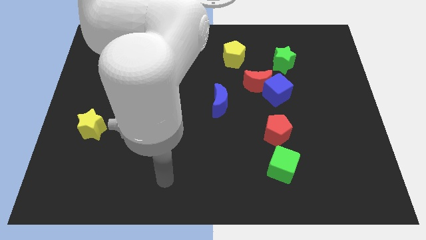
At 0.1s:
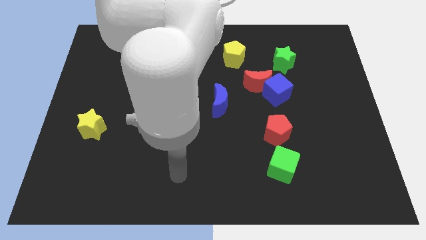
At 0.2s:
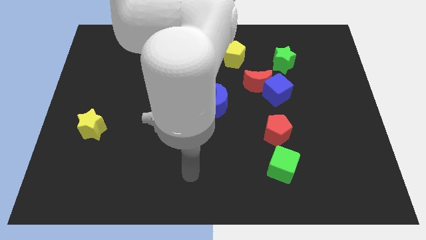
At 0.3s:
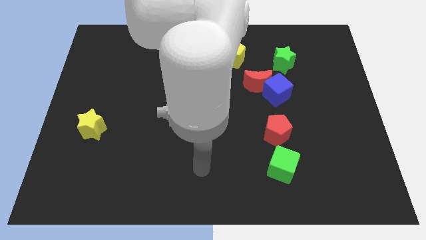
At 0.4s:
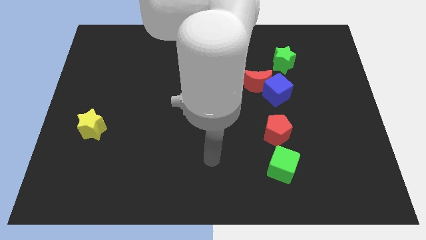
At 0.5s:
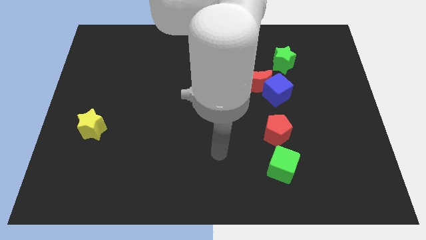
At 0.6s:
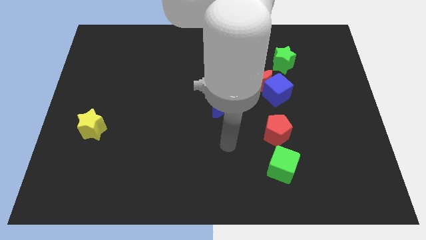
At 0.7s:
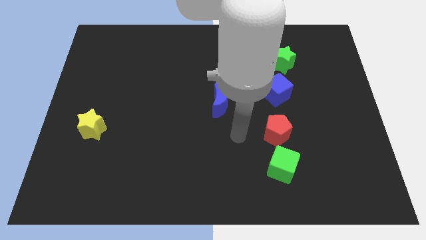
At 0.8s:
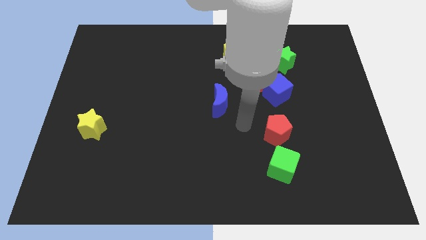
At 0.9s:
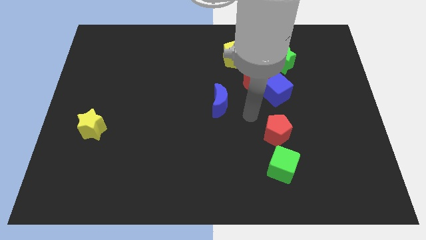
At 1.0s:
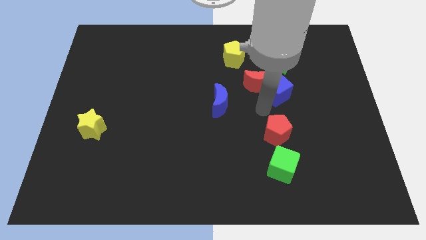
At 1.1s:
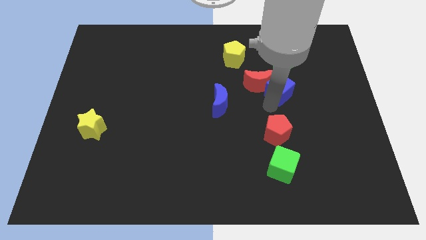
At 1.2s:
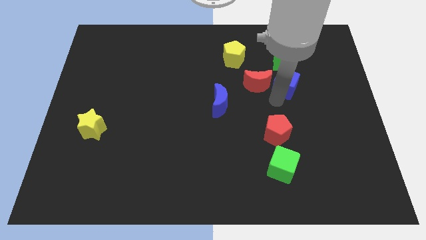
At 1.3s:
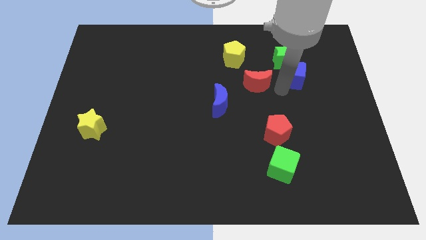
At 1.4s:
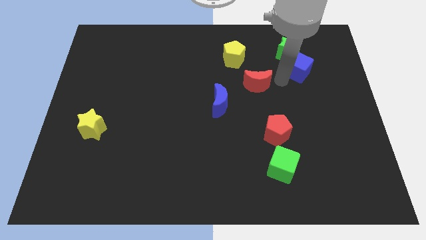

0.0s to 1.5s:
separate the red moon from the blue cube

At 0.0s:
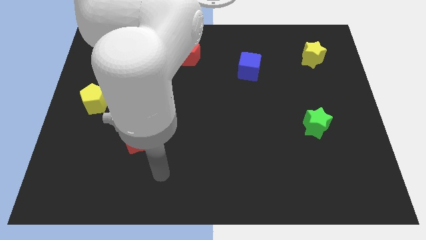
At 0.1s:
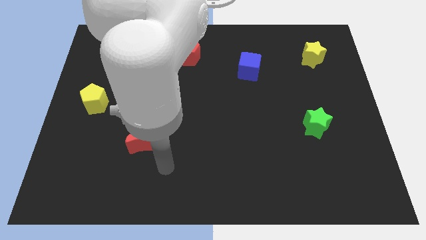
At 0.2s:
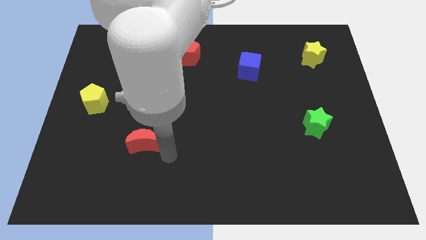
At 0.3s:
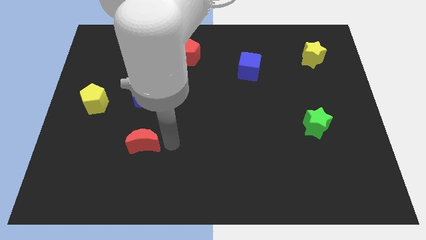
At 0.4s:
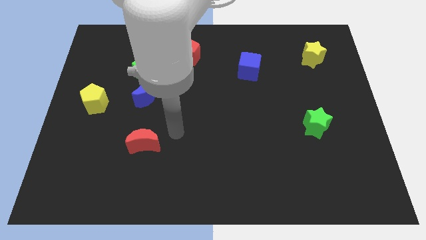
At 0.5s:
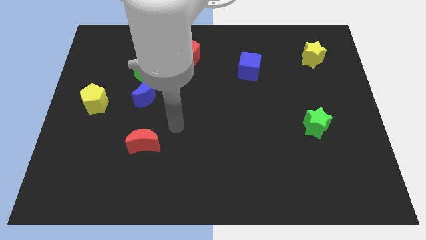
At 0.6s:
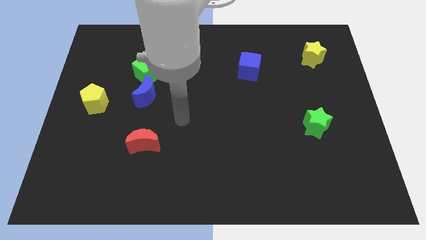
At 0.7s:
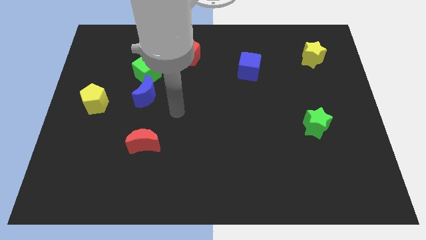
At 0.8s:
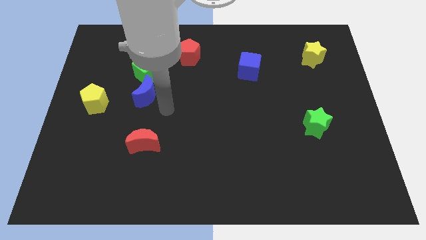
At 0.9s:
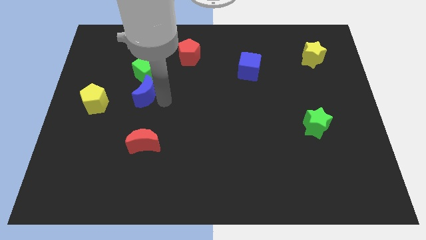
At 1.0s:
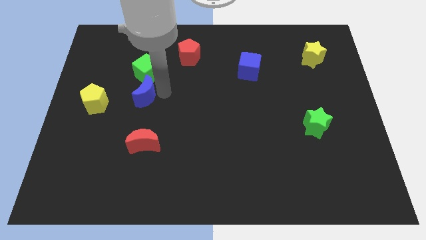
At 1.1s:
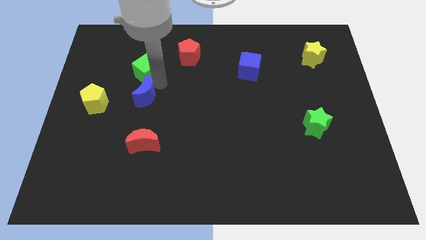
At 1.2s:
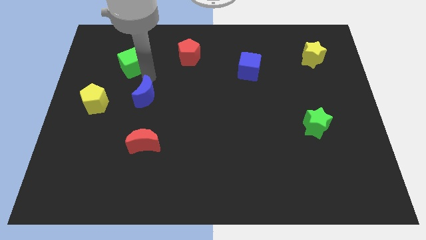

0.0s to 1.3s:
separate the blue moon from the green cube

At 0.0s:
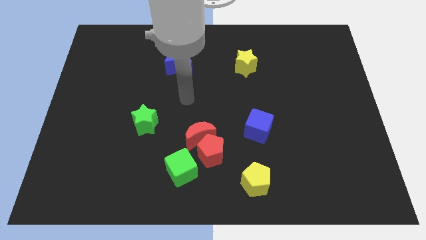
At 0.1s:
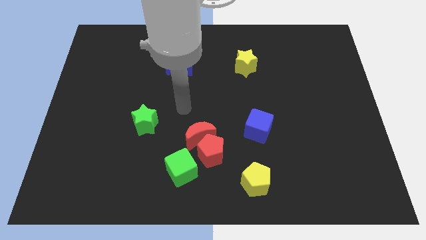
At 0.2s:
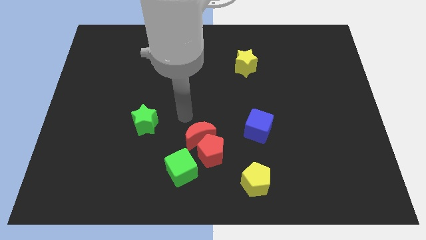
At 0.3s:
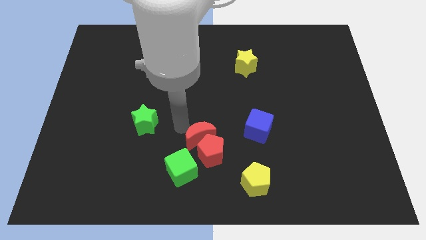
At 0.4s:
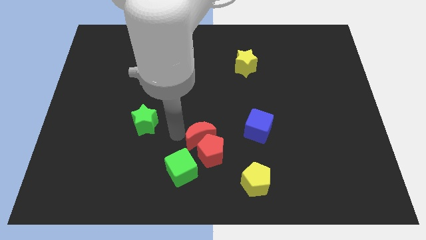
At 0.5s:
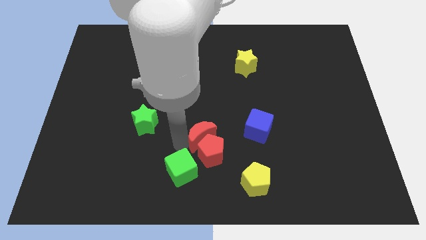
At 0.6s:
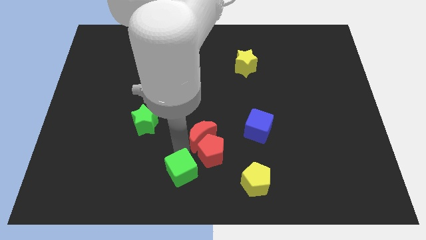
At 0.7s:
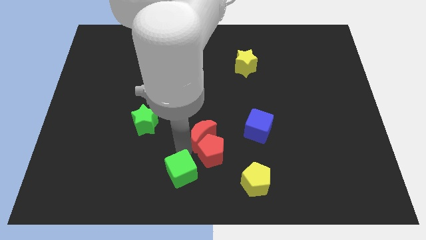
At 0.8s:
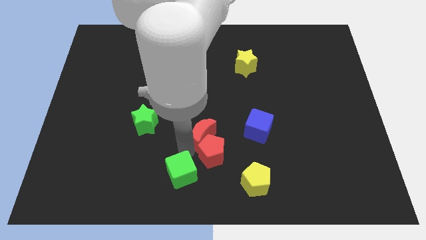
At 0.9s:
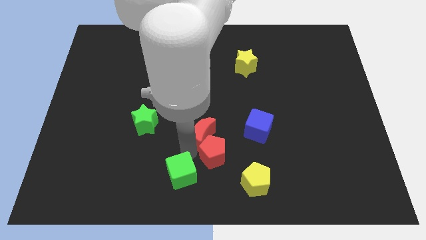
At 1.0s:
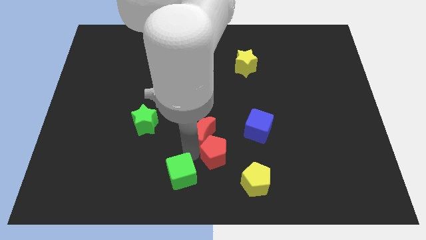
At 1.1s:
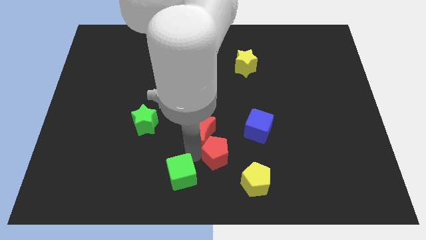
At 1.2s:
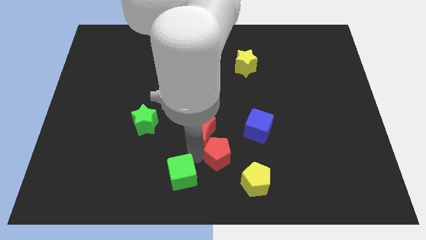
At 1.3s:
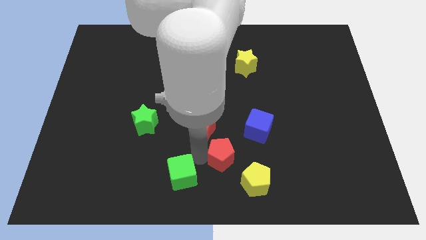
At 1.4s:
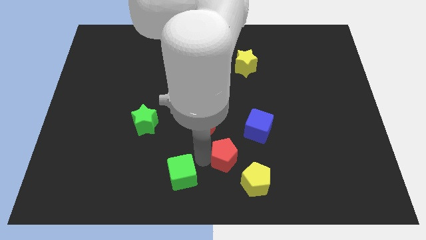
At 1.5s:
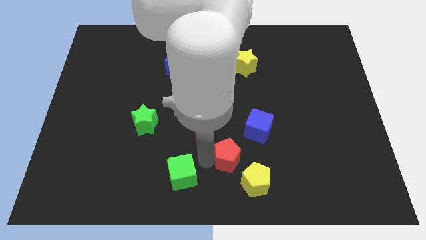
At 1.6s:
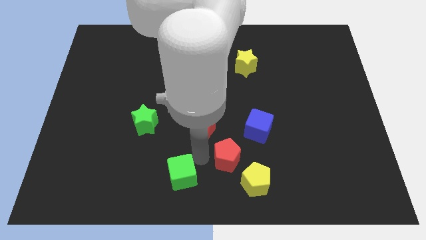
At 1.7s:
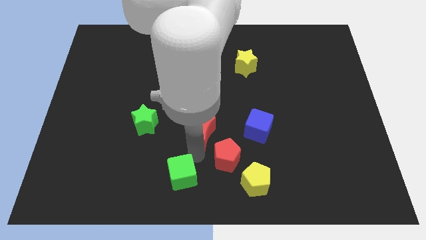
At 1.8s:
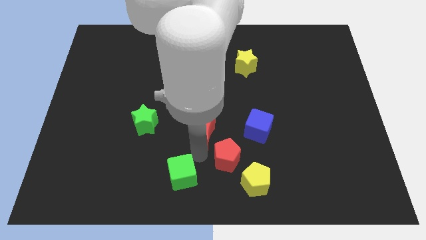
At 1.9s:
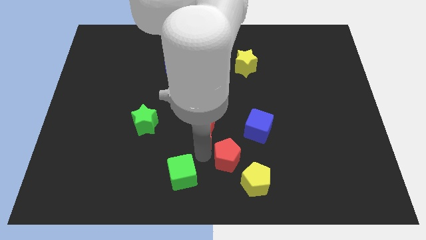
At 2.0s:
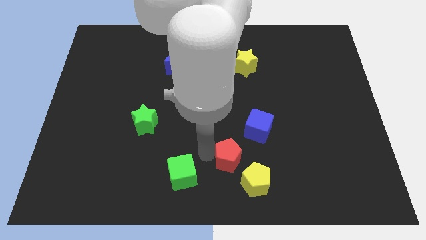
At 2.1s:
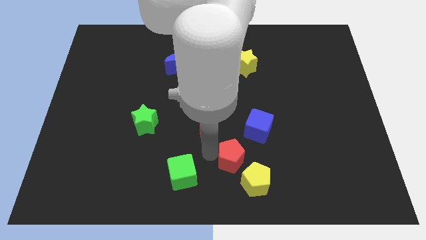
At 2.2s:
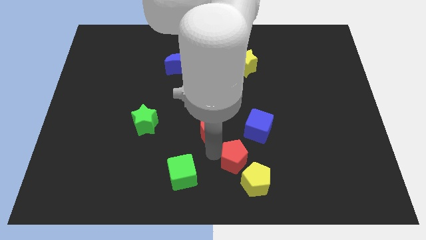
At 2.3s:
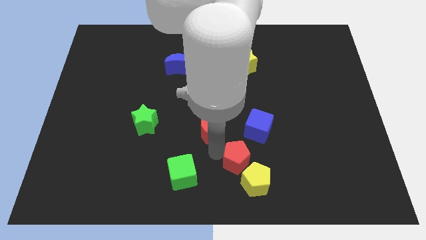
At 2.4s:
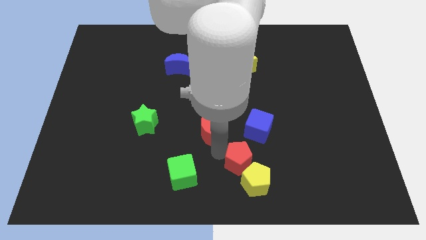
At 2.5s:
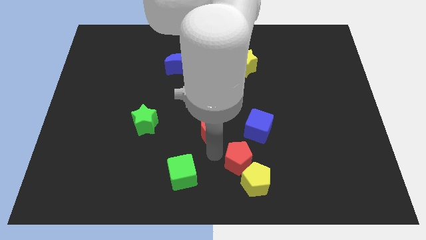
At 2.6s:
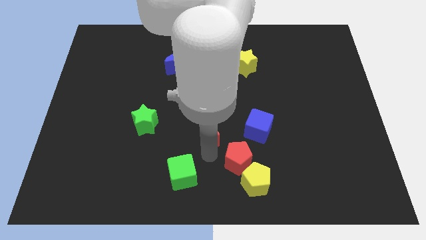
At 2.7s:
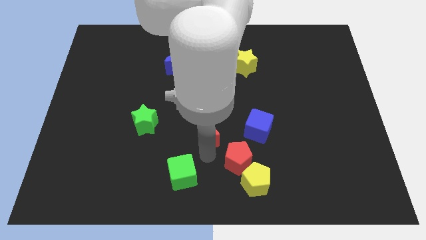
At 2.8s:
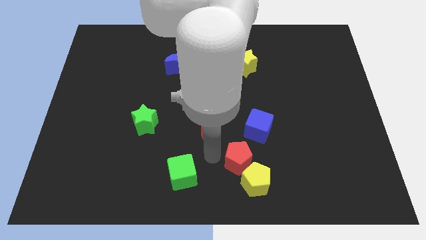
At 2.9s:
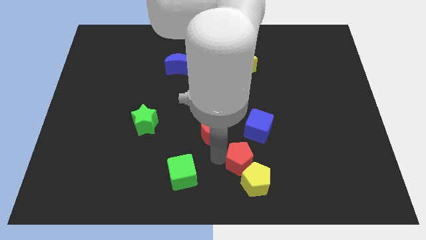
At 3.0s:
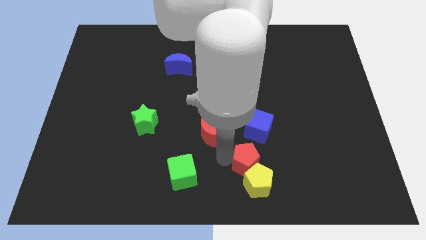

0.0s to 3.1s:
separate the red pentagon from the red moon and green cube

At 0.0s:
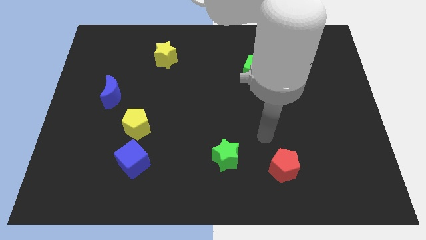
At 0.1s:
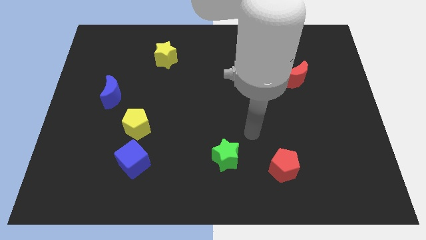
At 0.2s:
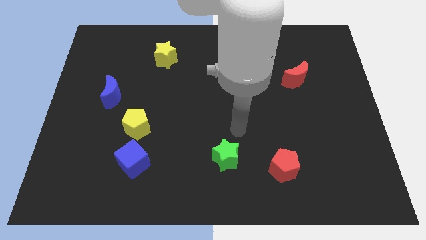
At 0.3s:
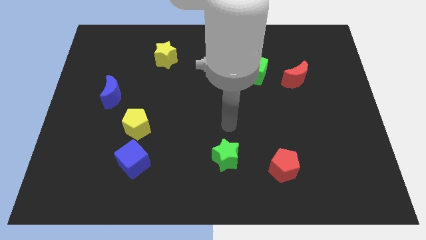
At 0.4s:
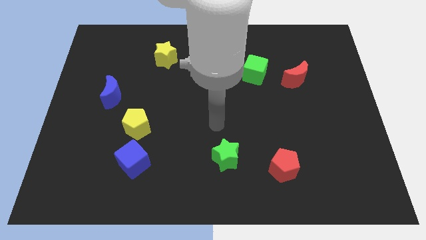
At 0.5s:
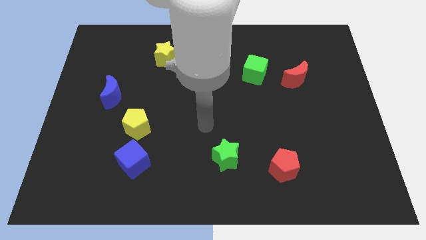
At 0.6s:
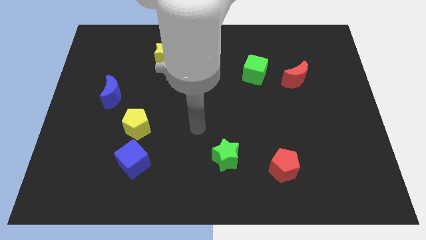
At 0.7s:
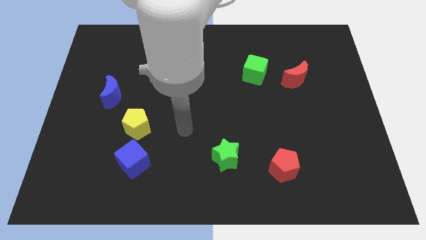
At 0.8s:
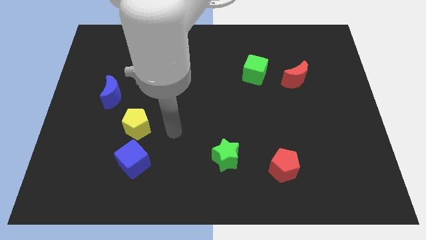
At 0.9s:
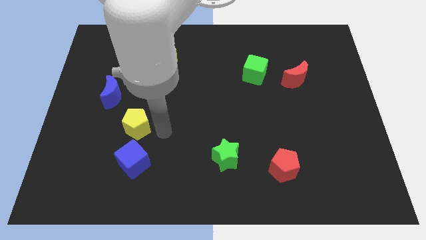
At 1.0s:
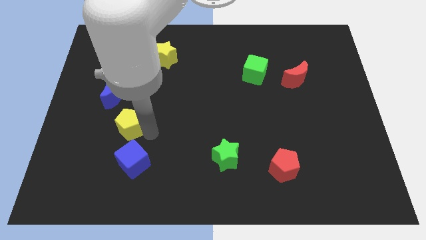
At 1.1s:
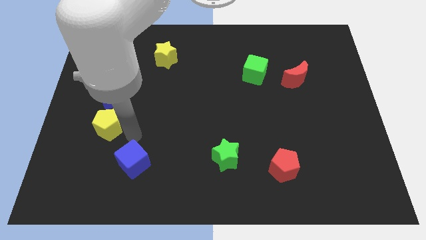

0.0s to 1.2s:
move the blue cube away from the yellow pentagon

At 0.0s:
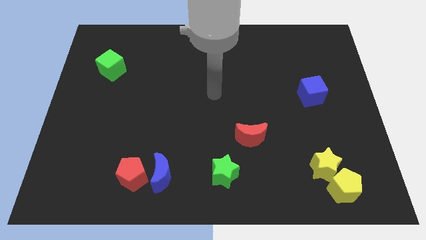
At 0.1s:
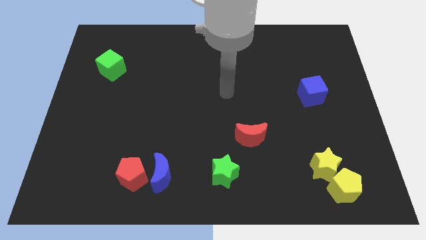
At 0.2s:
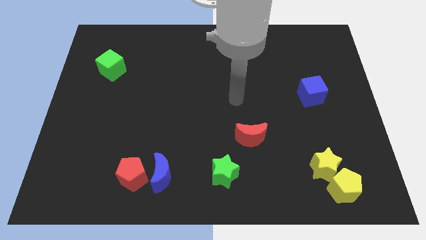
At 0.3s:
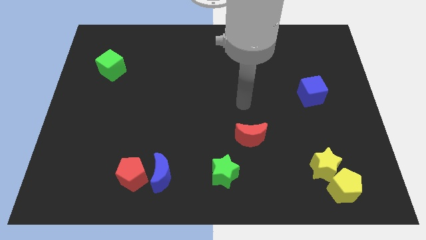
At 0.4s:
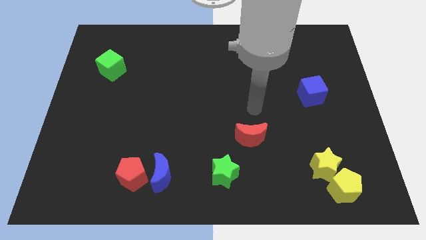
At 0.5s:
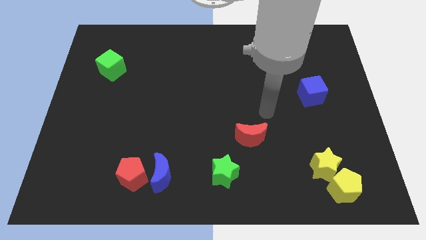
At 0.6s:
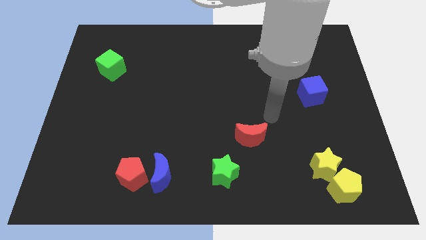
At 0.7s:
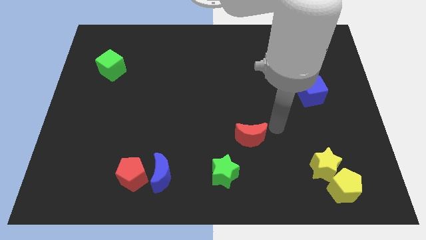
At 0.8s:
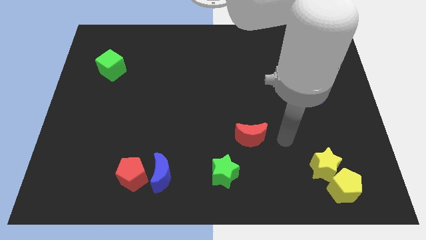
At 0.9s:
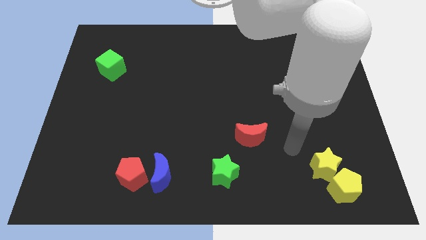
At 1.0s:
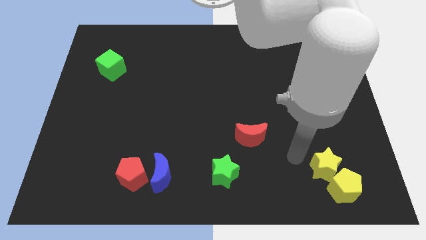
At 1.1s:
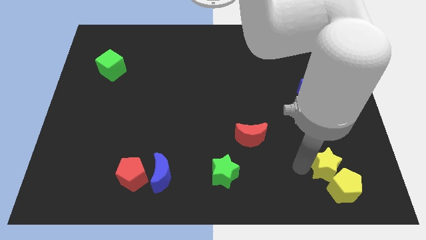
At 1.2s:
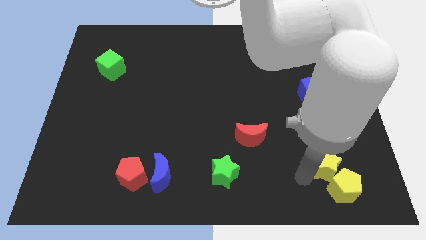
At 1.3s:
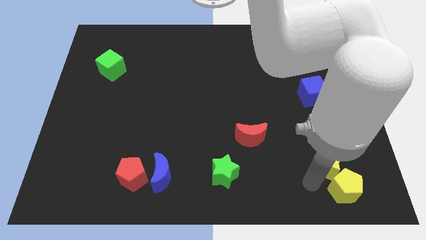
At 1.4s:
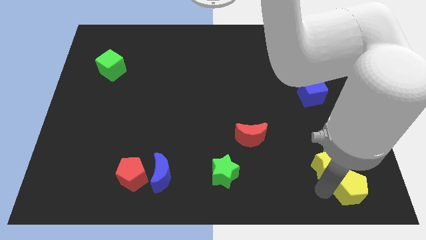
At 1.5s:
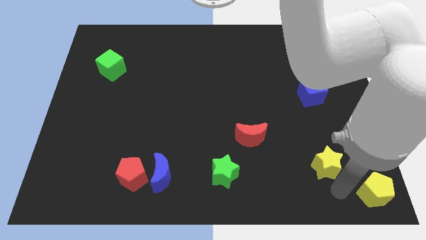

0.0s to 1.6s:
separate the yellow star from the yellow pentagon

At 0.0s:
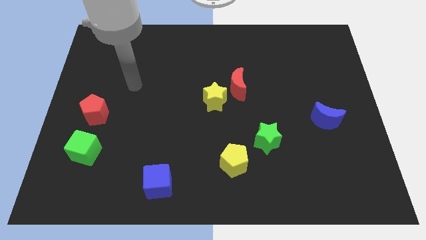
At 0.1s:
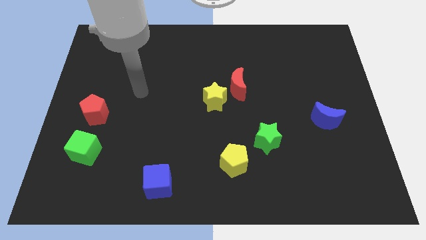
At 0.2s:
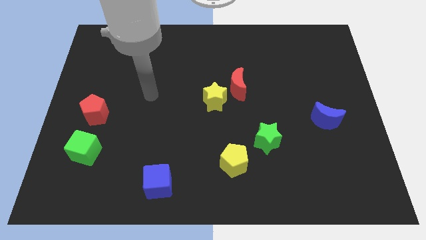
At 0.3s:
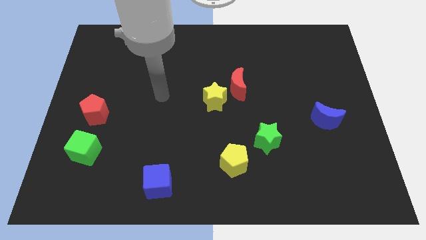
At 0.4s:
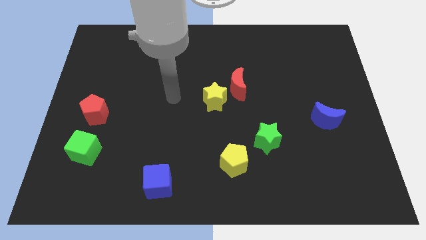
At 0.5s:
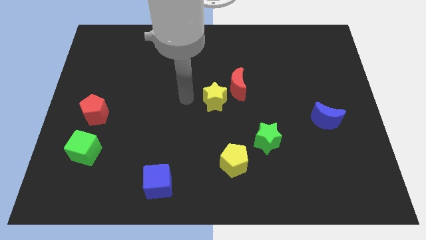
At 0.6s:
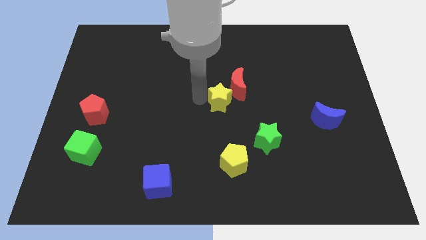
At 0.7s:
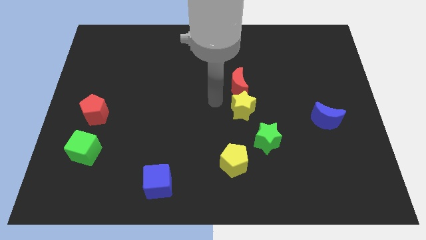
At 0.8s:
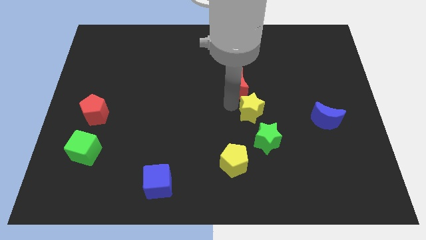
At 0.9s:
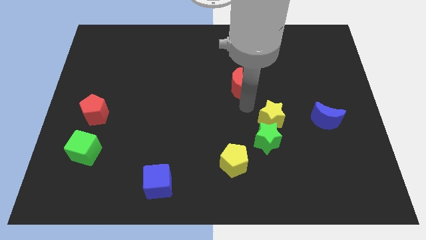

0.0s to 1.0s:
separate the red moon from the yellow star
